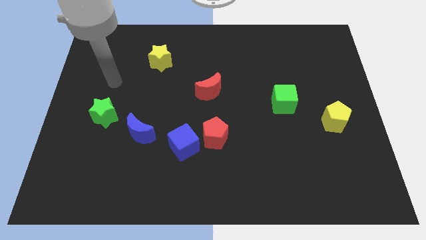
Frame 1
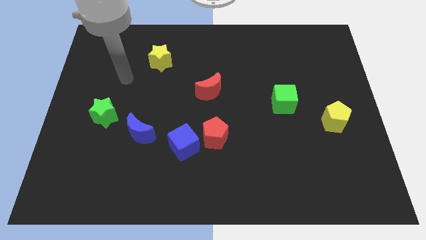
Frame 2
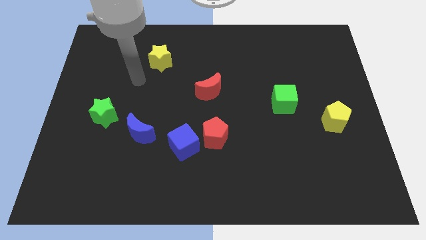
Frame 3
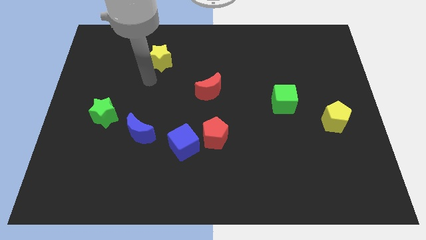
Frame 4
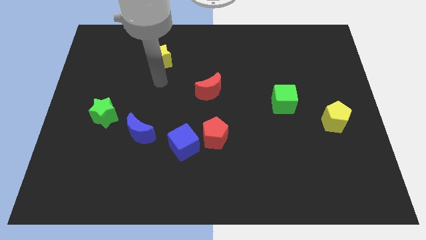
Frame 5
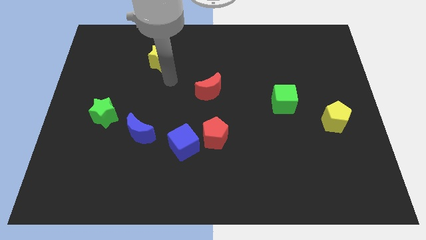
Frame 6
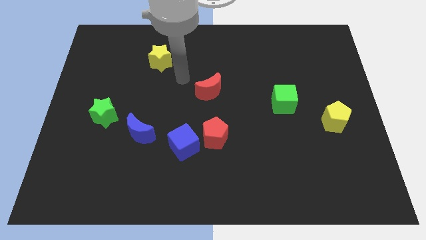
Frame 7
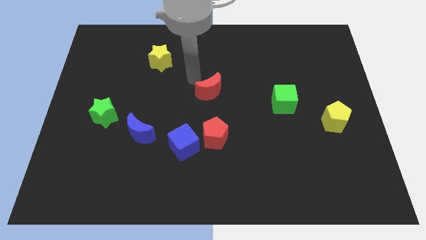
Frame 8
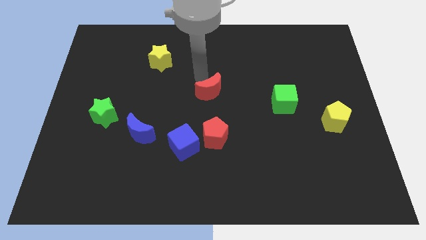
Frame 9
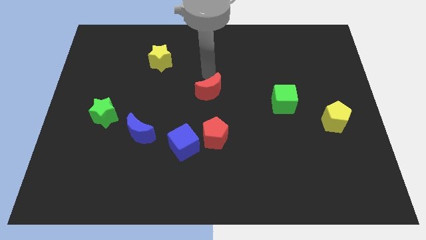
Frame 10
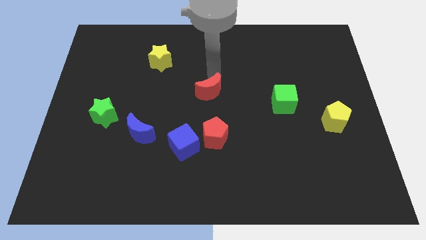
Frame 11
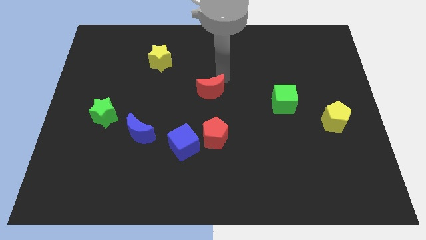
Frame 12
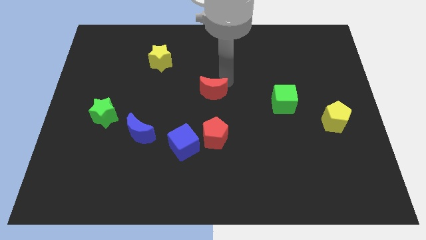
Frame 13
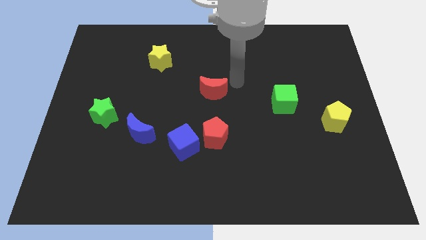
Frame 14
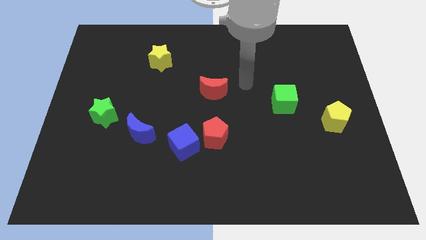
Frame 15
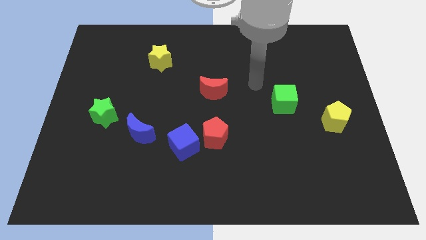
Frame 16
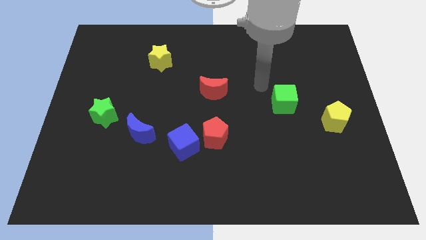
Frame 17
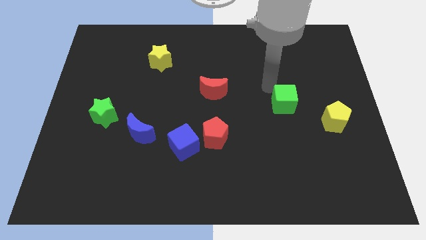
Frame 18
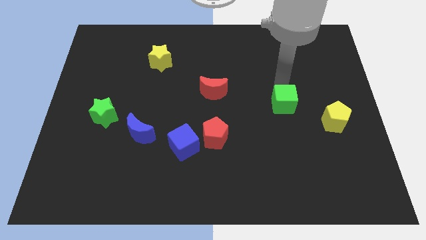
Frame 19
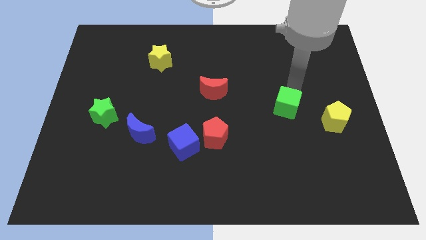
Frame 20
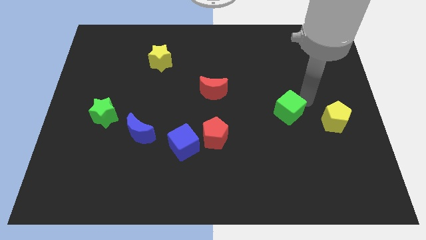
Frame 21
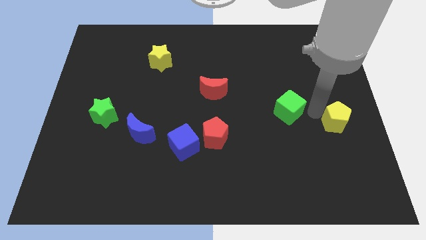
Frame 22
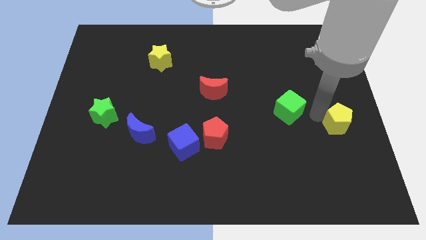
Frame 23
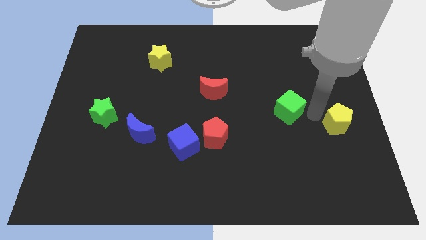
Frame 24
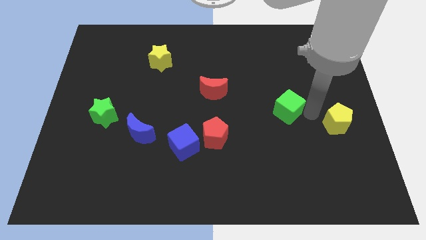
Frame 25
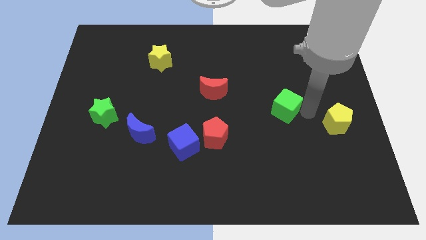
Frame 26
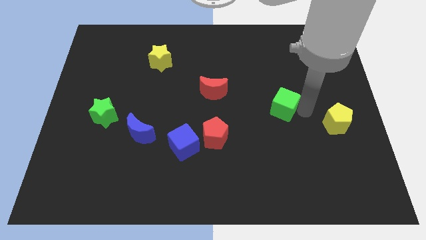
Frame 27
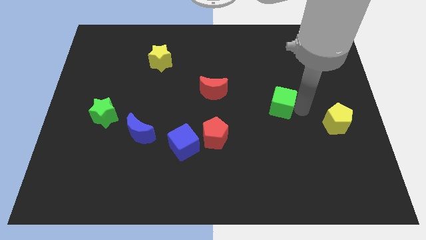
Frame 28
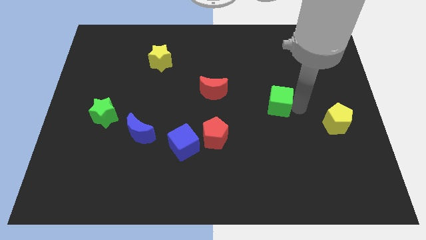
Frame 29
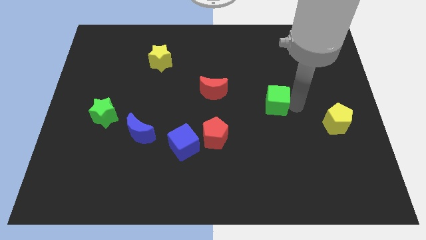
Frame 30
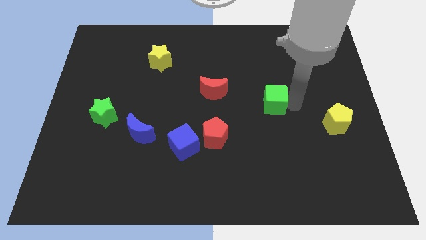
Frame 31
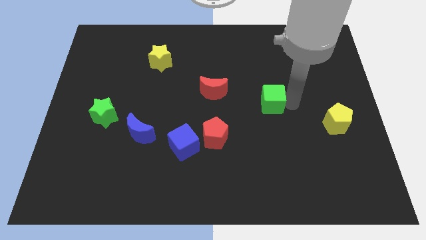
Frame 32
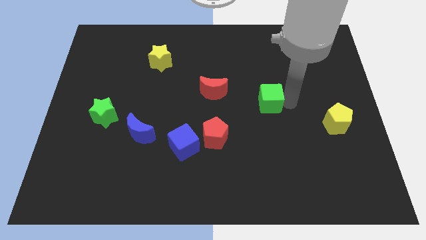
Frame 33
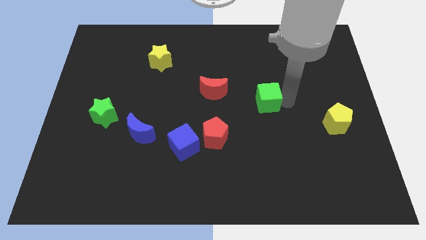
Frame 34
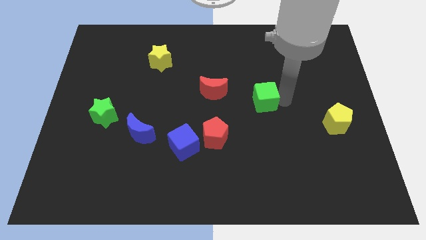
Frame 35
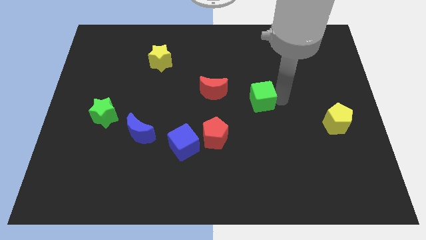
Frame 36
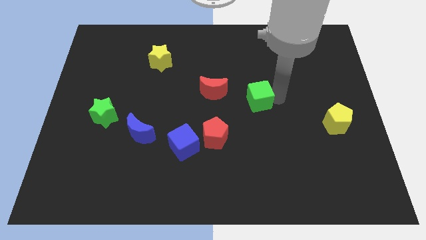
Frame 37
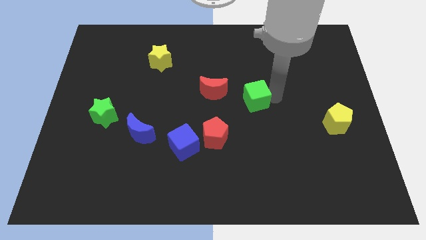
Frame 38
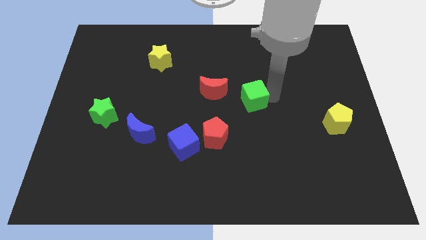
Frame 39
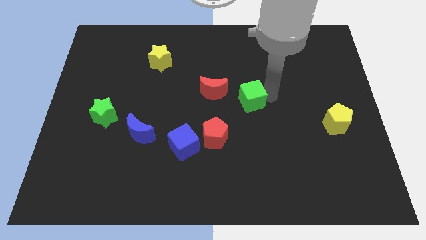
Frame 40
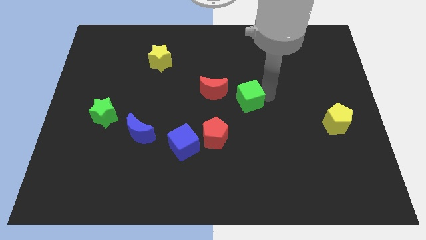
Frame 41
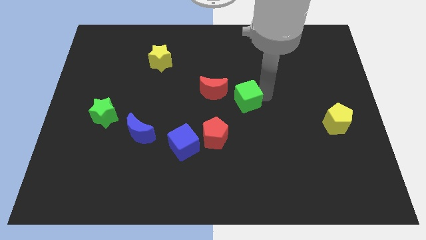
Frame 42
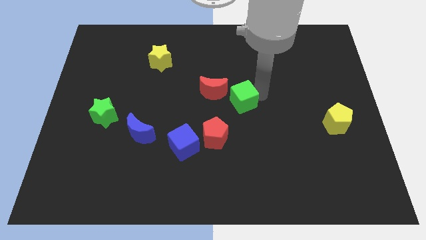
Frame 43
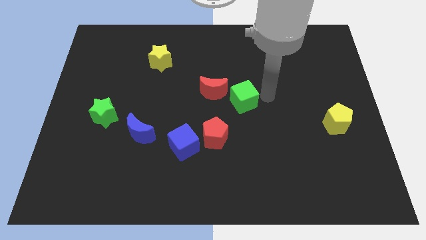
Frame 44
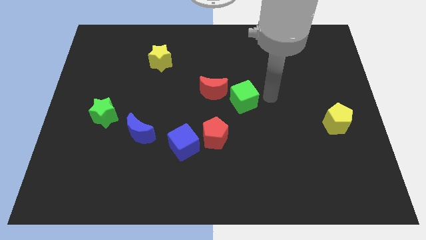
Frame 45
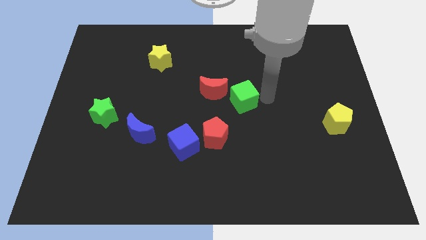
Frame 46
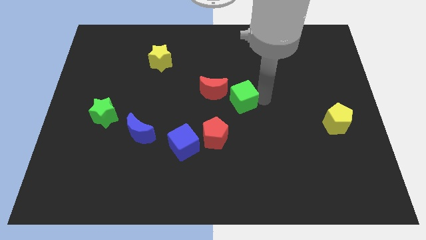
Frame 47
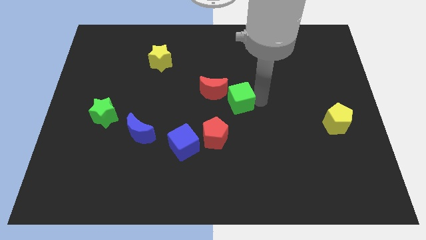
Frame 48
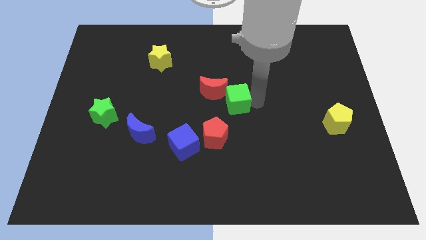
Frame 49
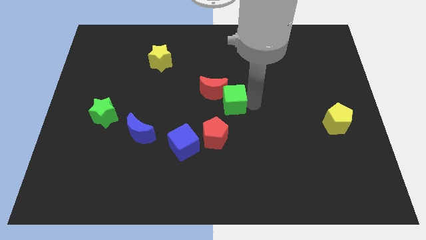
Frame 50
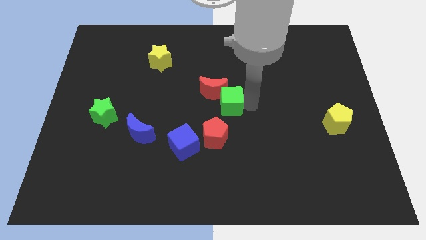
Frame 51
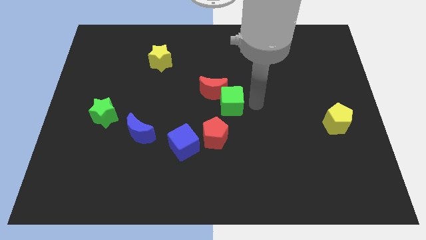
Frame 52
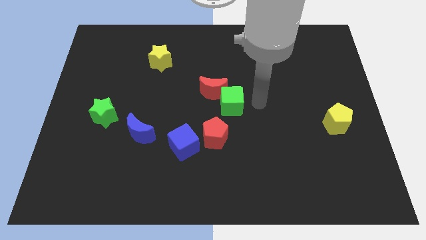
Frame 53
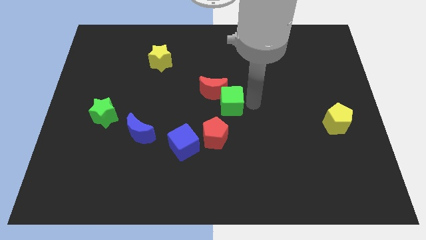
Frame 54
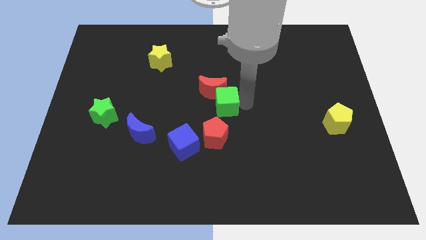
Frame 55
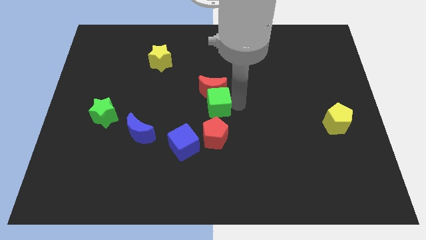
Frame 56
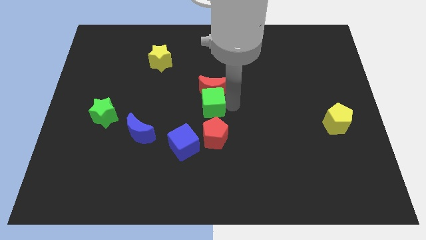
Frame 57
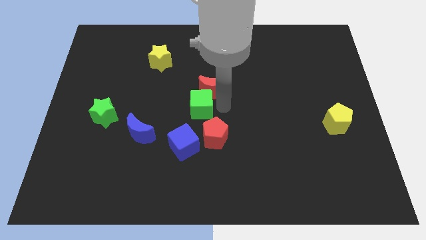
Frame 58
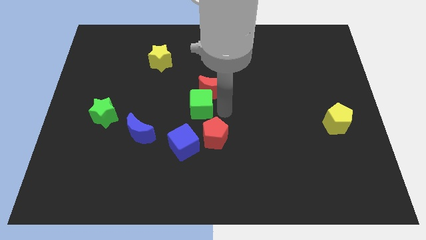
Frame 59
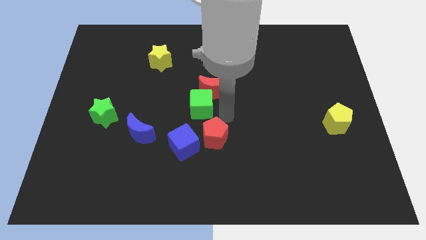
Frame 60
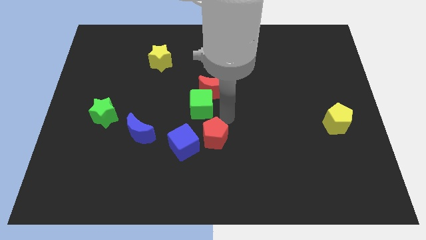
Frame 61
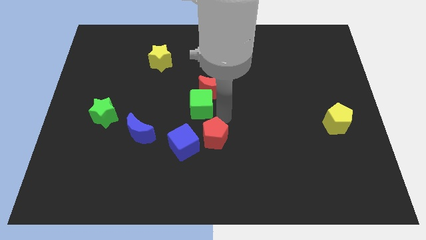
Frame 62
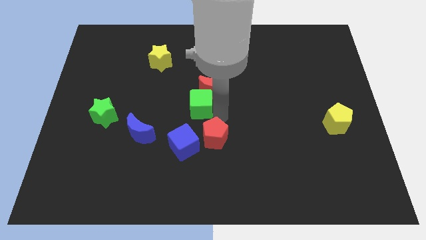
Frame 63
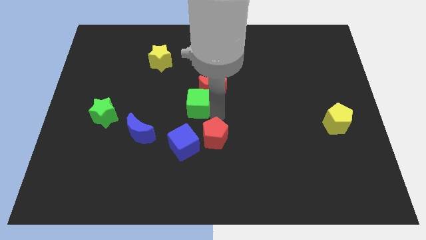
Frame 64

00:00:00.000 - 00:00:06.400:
push the green cube to the left

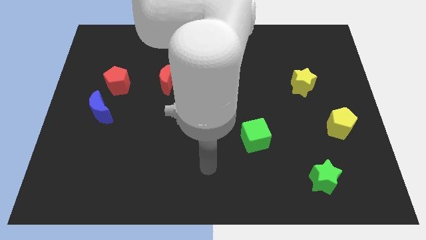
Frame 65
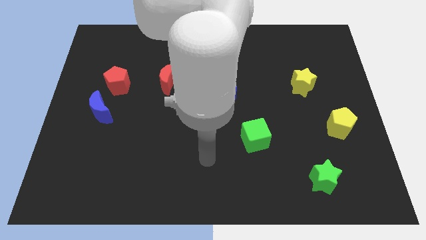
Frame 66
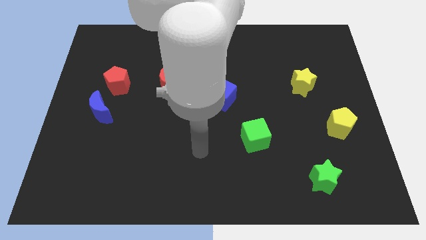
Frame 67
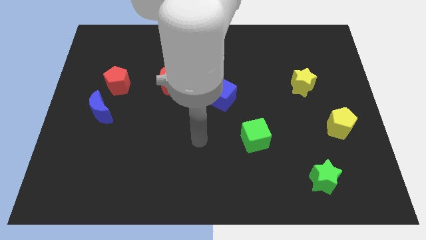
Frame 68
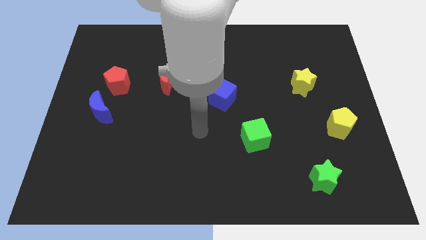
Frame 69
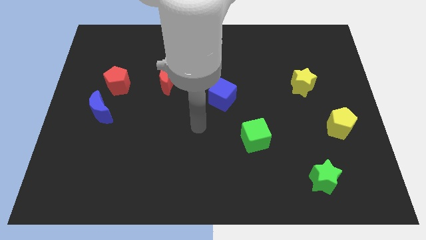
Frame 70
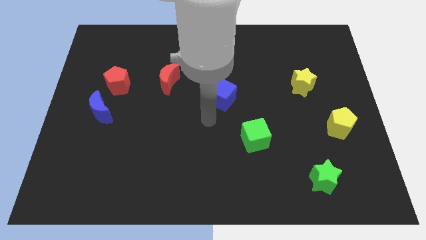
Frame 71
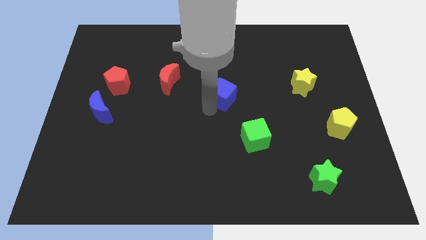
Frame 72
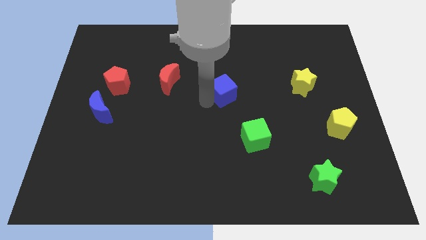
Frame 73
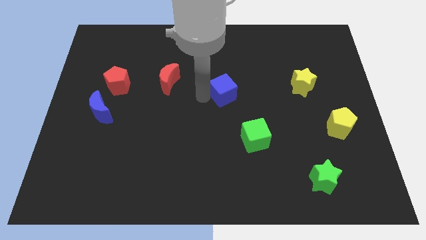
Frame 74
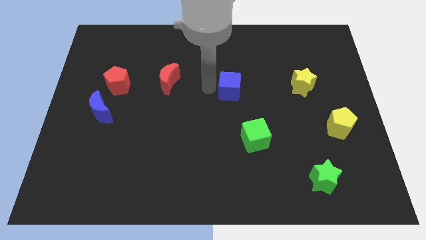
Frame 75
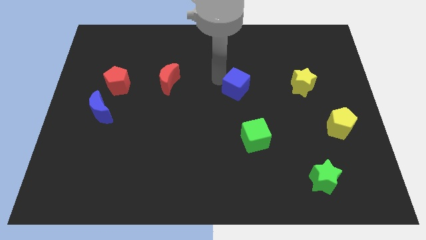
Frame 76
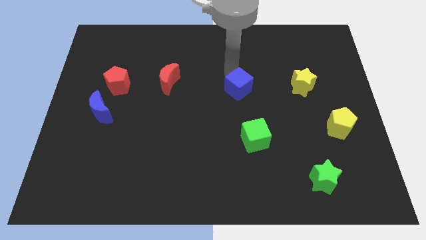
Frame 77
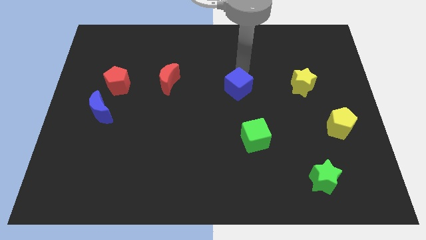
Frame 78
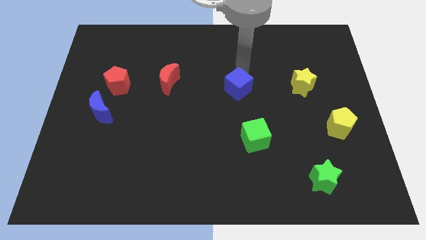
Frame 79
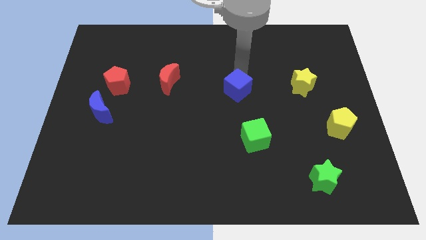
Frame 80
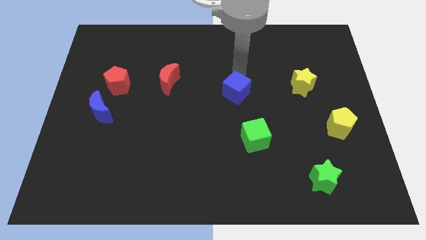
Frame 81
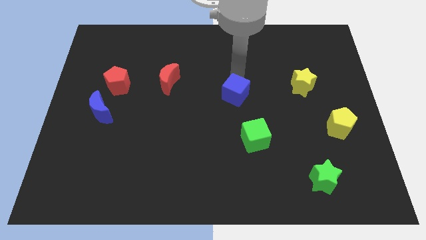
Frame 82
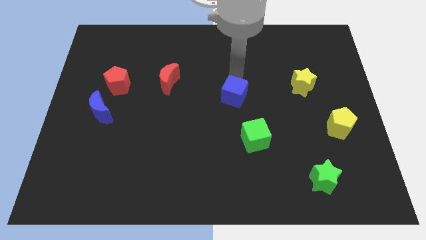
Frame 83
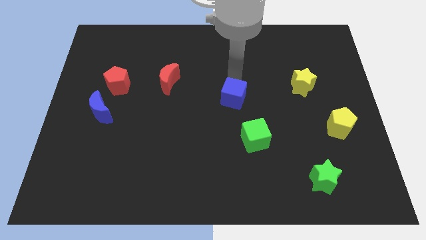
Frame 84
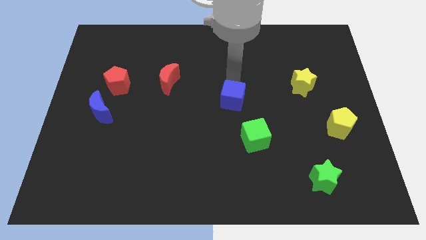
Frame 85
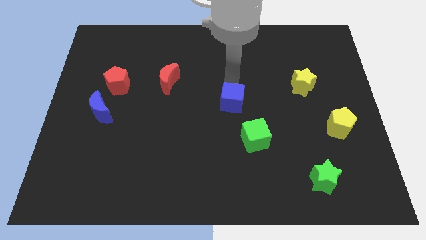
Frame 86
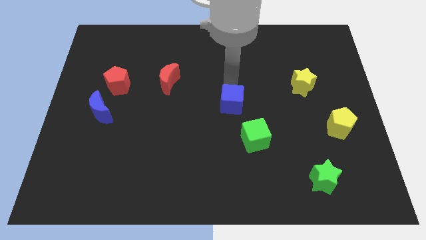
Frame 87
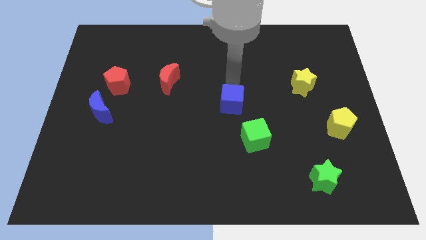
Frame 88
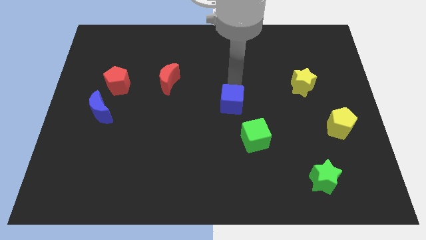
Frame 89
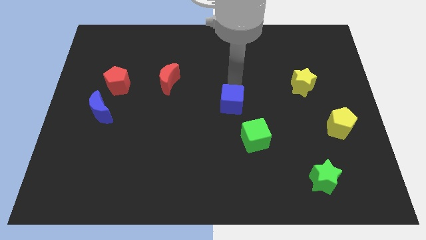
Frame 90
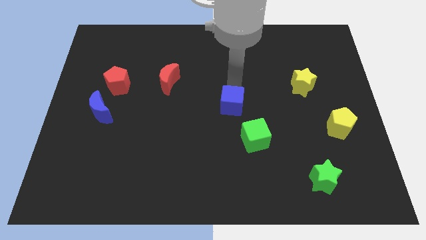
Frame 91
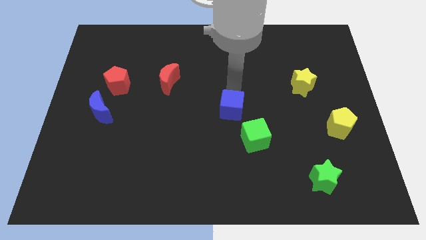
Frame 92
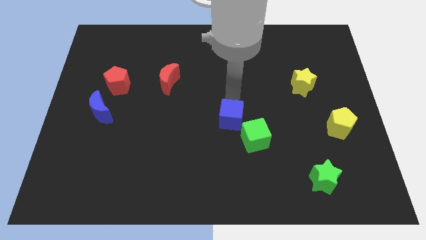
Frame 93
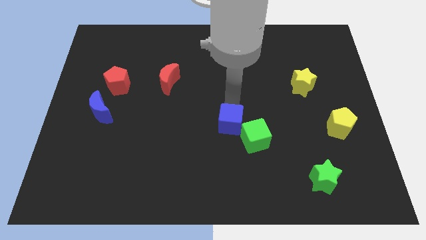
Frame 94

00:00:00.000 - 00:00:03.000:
slightly push the blue cube down
